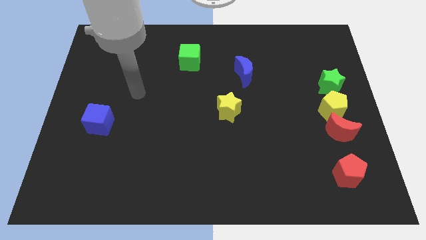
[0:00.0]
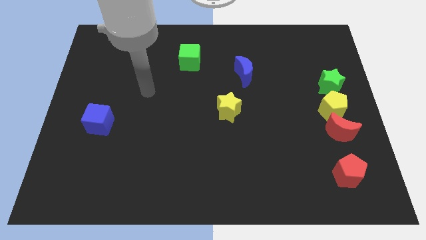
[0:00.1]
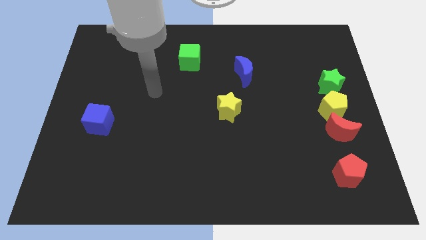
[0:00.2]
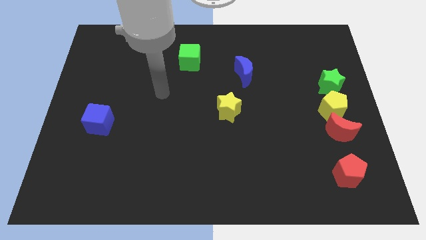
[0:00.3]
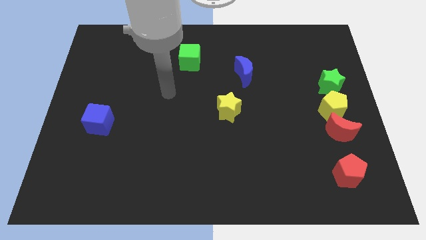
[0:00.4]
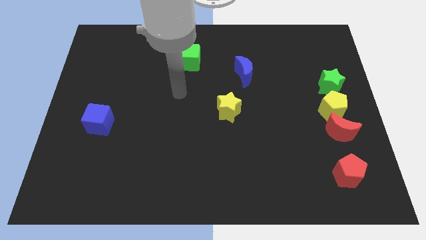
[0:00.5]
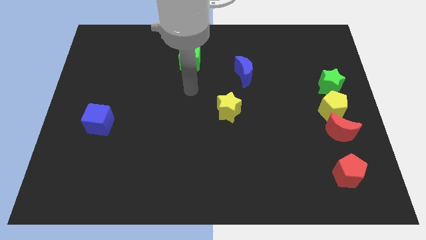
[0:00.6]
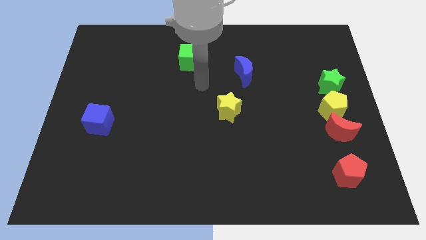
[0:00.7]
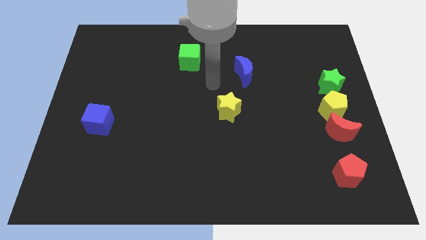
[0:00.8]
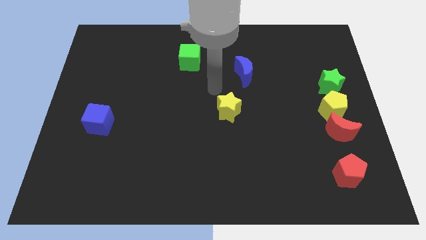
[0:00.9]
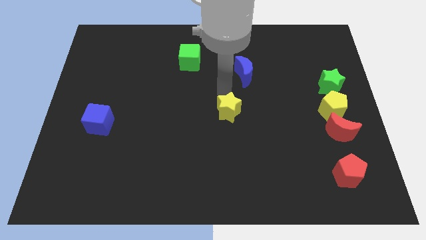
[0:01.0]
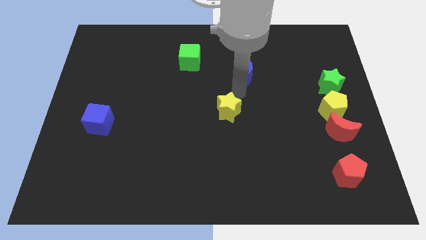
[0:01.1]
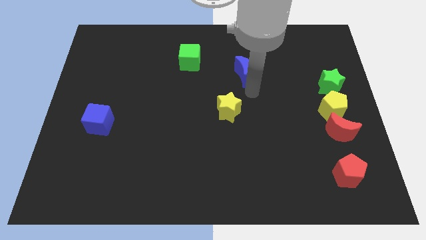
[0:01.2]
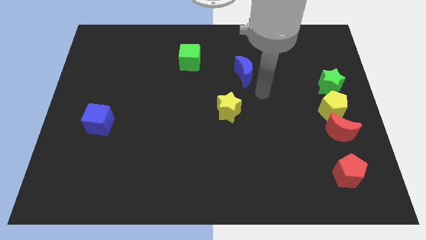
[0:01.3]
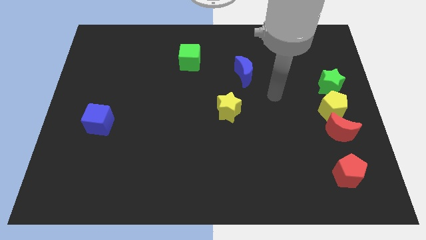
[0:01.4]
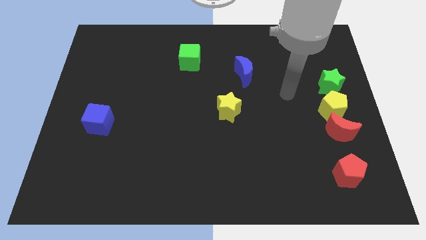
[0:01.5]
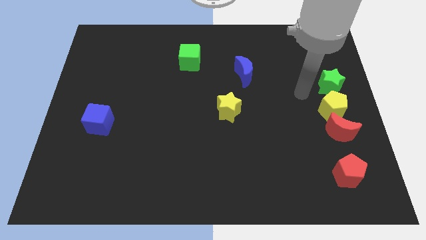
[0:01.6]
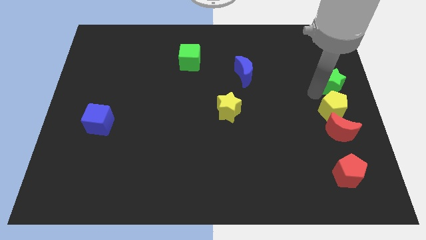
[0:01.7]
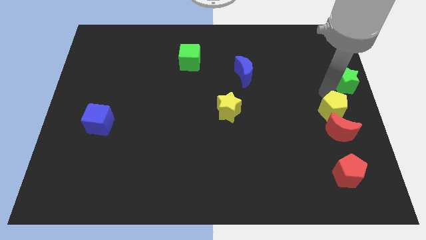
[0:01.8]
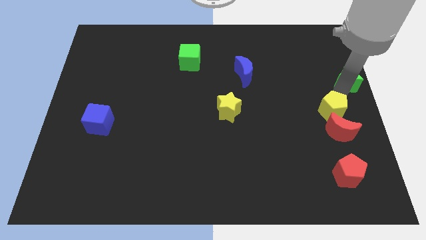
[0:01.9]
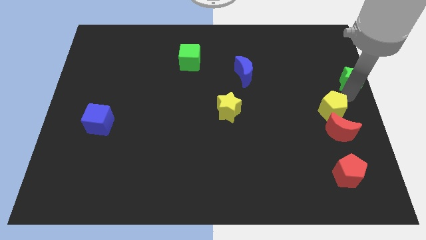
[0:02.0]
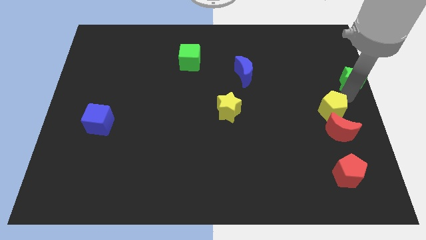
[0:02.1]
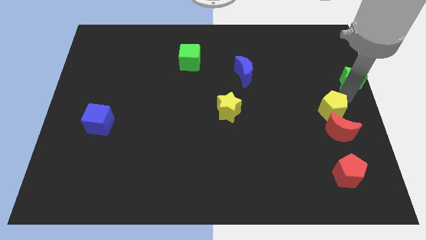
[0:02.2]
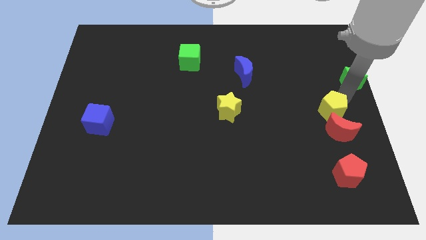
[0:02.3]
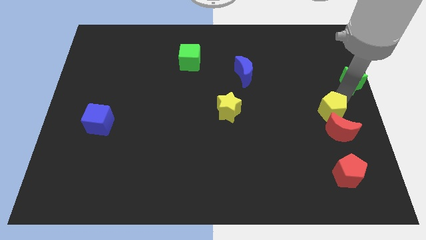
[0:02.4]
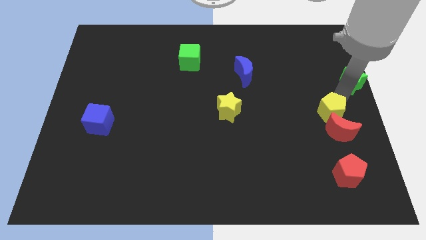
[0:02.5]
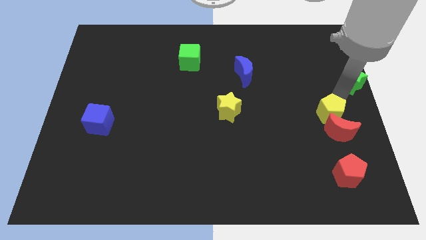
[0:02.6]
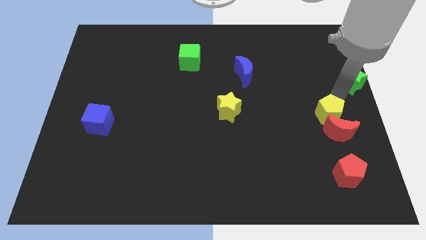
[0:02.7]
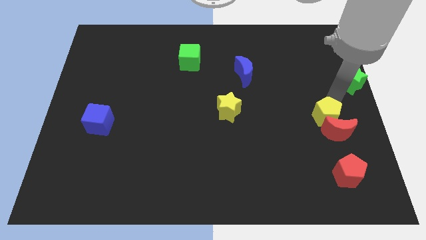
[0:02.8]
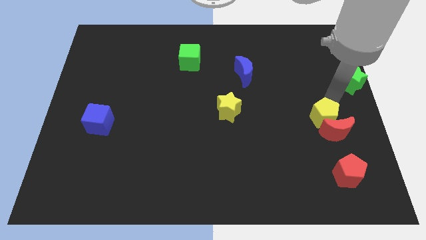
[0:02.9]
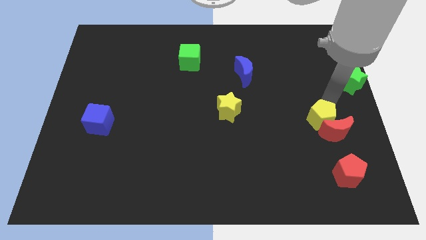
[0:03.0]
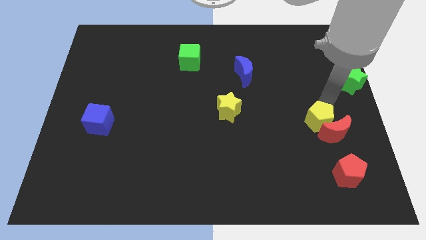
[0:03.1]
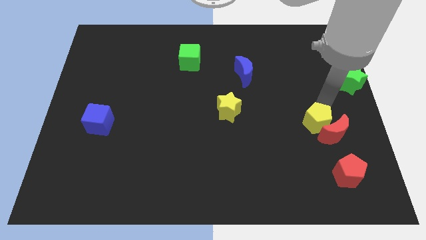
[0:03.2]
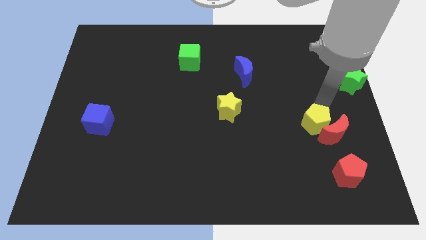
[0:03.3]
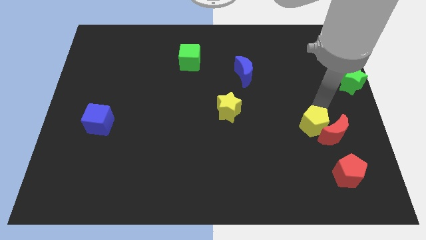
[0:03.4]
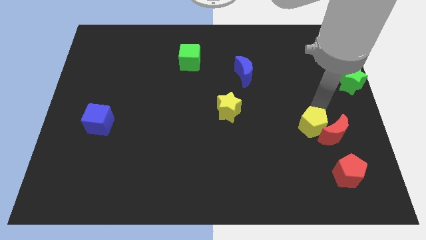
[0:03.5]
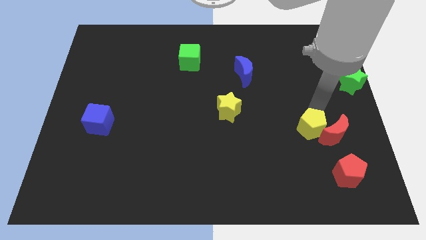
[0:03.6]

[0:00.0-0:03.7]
move the yellow pentagon away from the red moon and green star

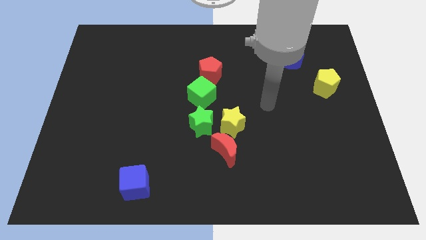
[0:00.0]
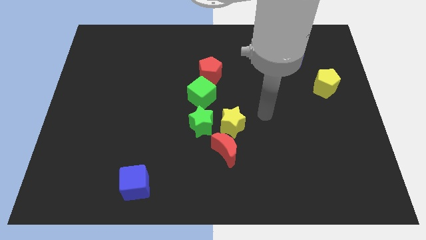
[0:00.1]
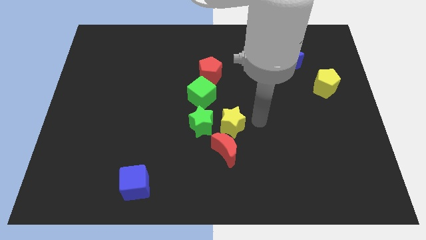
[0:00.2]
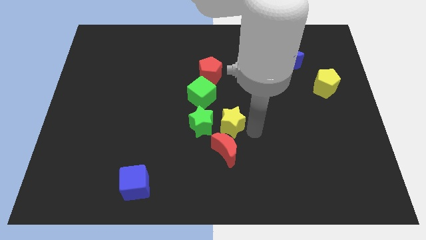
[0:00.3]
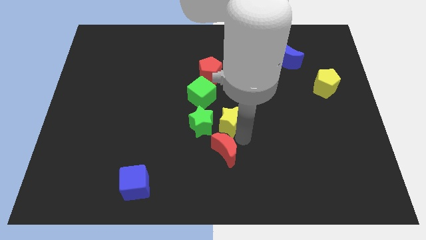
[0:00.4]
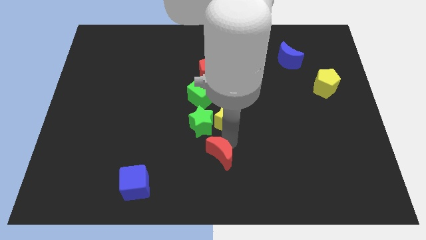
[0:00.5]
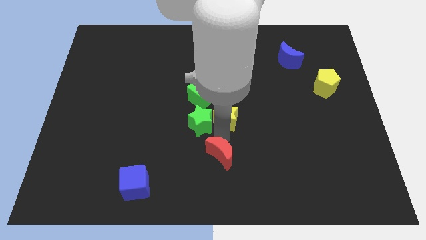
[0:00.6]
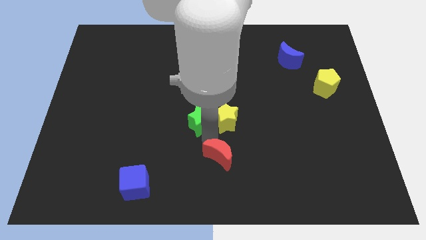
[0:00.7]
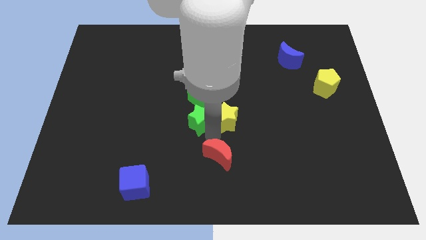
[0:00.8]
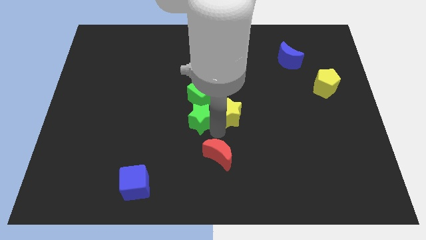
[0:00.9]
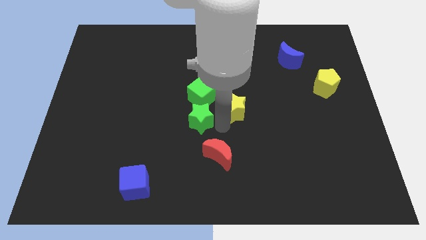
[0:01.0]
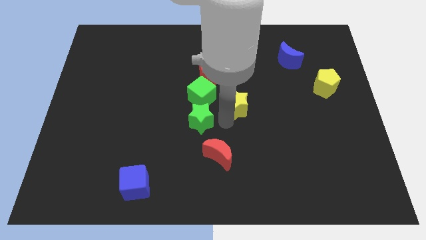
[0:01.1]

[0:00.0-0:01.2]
pull the yellow star apart from the red moon and green star

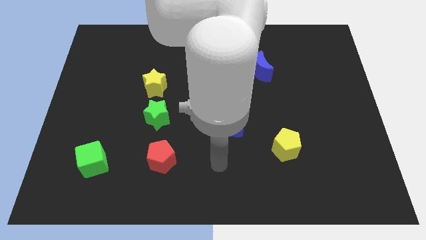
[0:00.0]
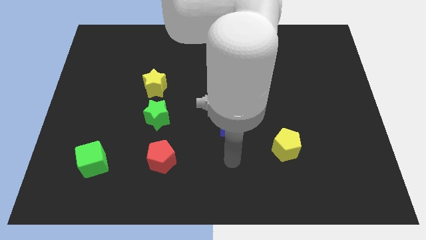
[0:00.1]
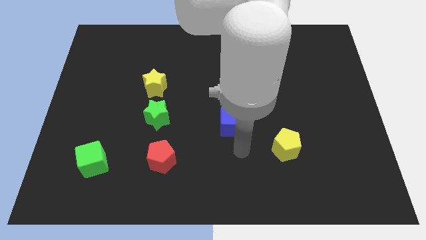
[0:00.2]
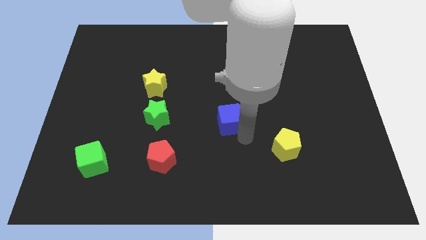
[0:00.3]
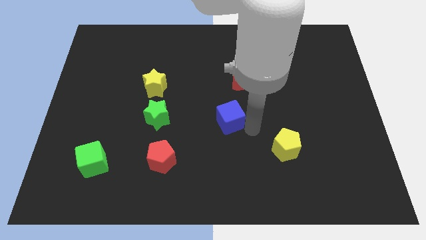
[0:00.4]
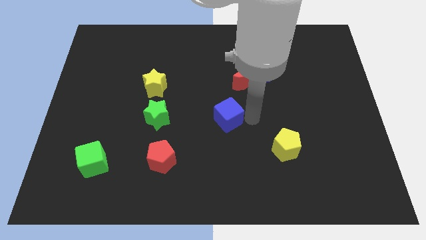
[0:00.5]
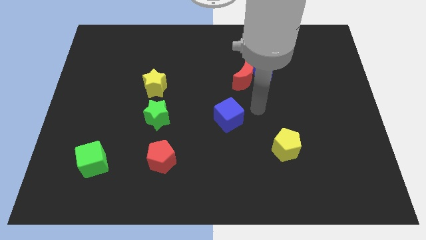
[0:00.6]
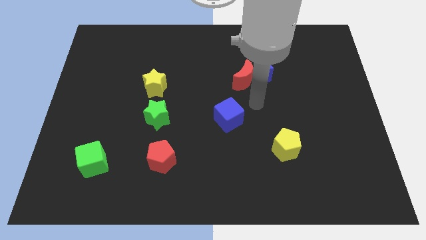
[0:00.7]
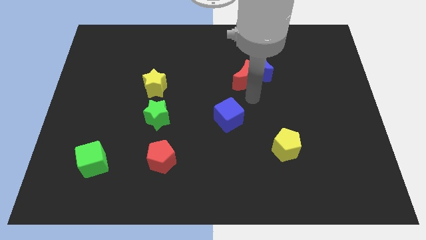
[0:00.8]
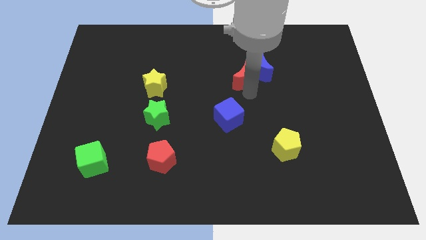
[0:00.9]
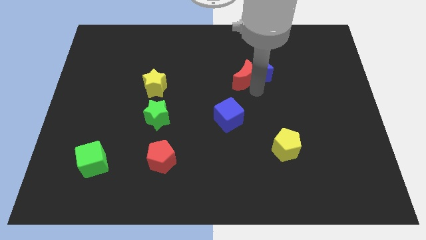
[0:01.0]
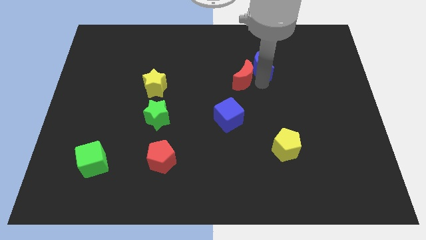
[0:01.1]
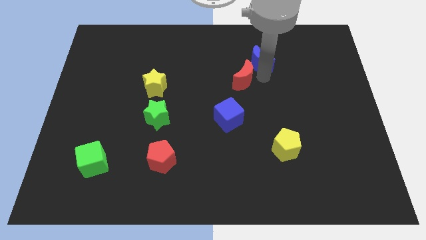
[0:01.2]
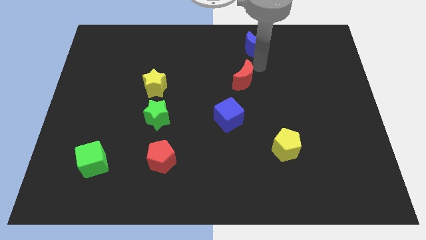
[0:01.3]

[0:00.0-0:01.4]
pull the red moon apart from the blue moon

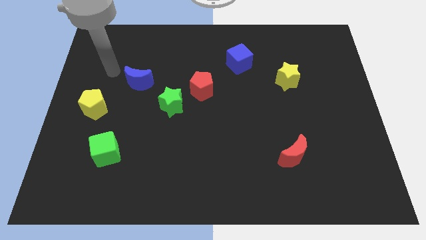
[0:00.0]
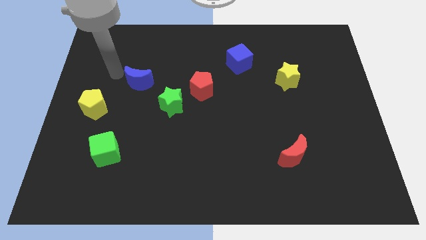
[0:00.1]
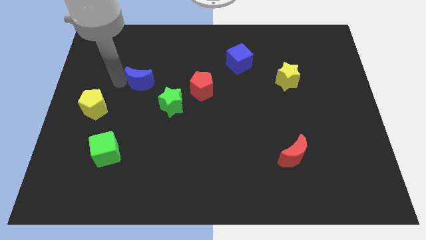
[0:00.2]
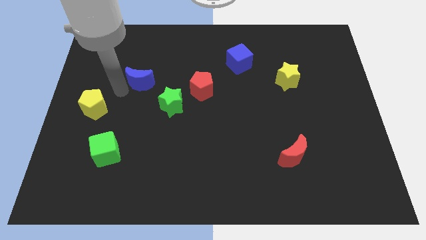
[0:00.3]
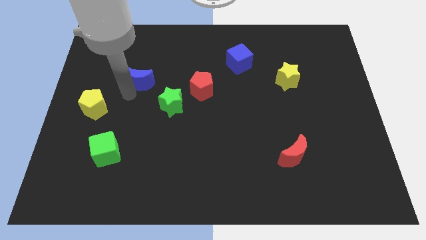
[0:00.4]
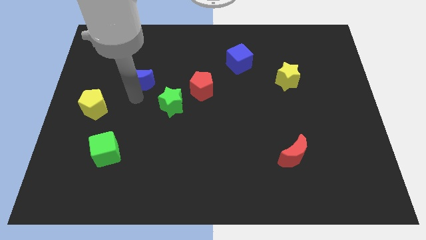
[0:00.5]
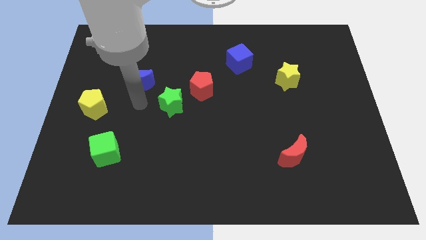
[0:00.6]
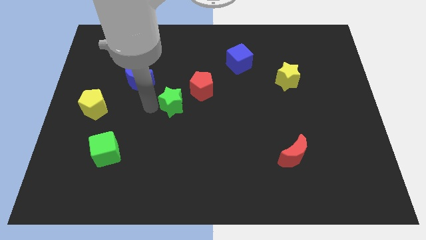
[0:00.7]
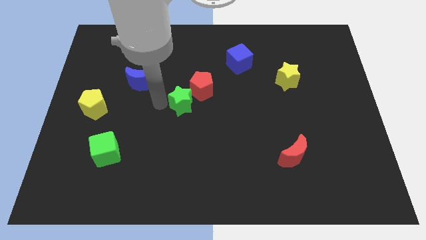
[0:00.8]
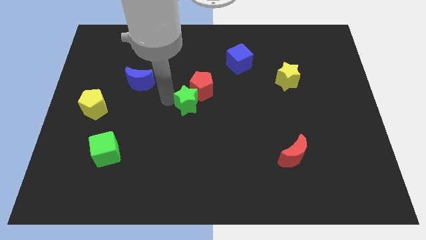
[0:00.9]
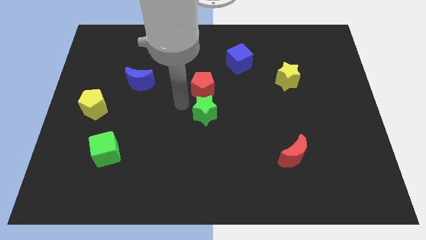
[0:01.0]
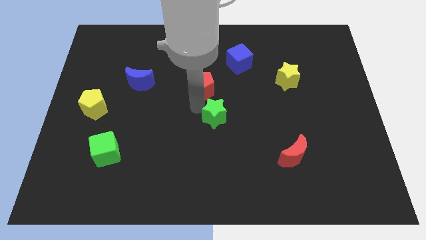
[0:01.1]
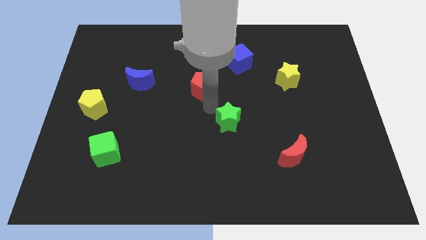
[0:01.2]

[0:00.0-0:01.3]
pull the red pentagon apart from the green star

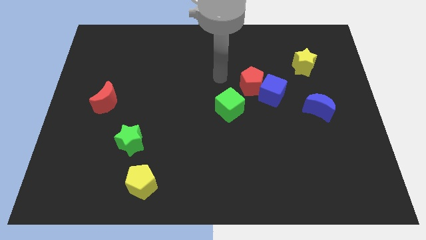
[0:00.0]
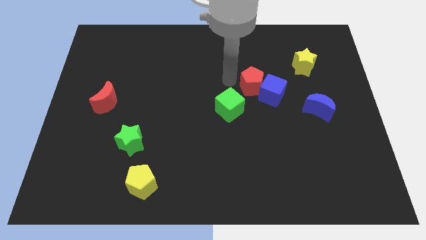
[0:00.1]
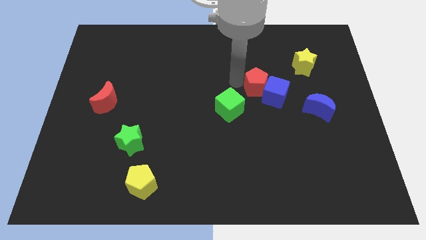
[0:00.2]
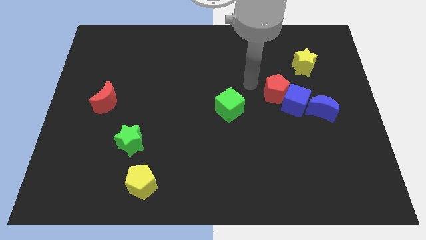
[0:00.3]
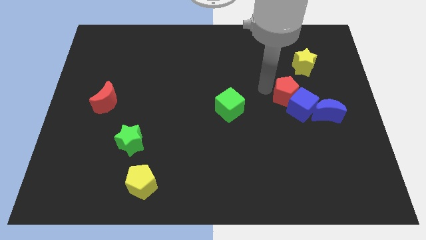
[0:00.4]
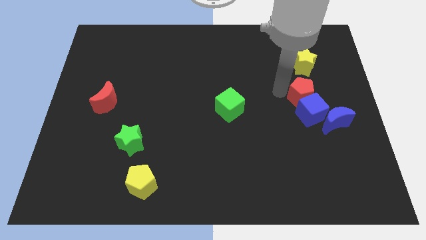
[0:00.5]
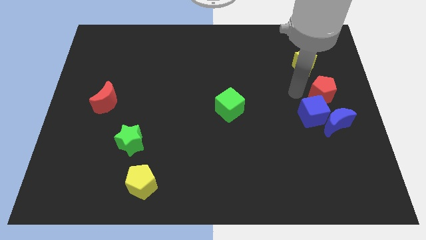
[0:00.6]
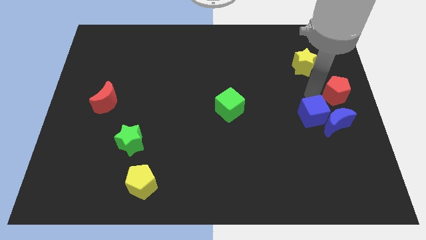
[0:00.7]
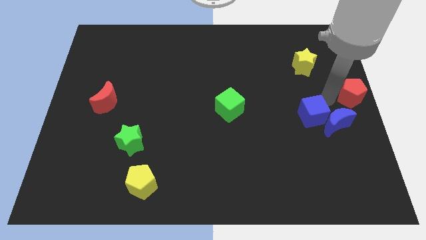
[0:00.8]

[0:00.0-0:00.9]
move the blue cube away from the red pentagon

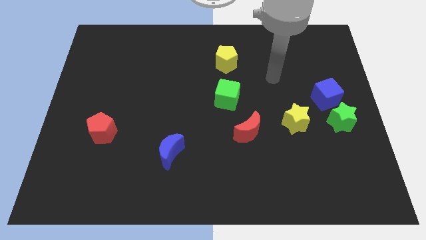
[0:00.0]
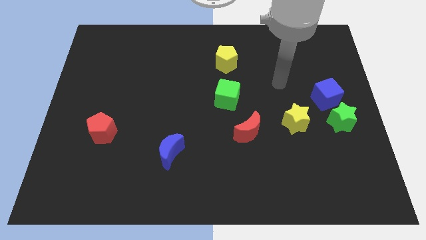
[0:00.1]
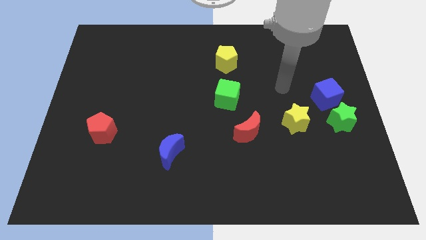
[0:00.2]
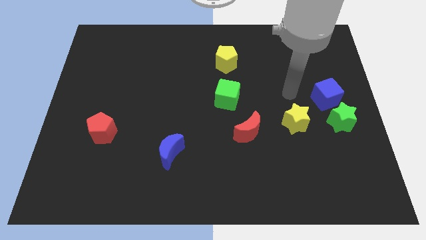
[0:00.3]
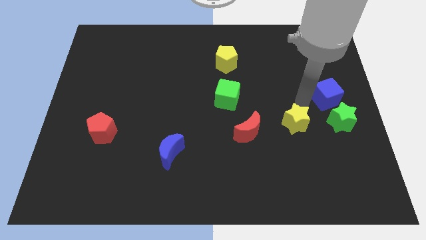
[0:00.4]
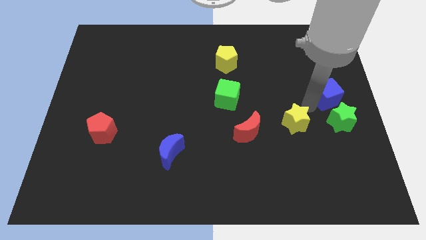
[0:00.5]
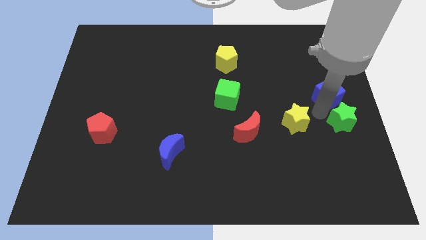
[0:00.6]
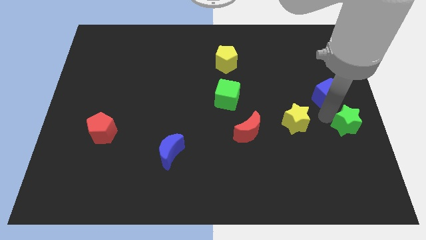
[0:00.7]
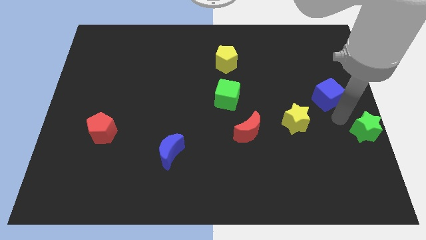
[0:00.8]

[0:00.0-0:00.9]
separate the blue cube from the green star

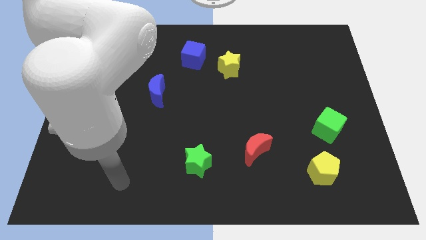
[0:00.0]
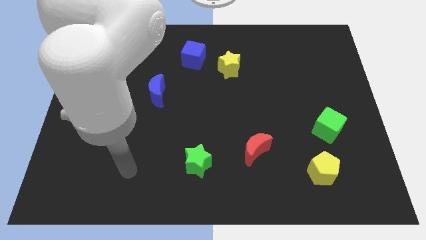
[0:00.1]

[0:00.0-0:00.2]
pull the blue cube apart from the yellow star
